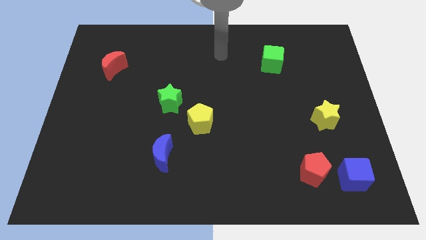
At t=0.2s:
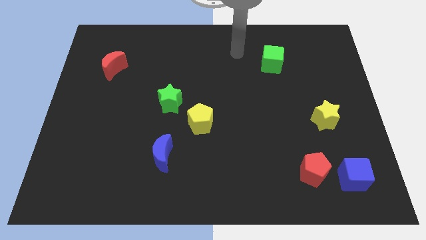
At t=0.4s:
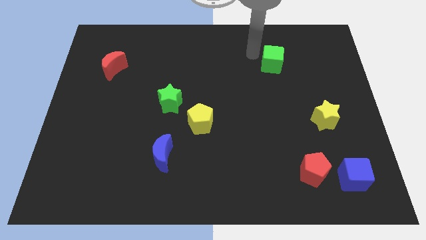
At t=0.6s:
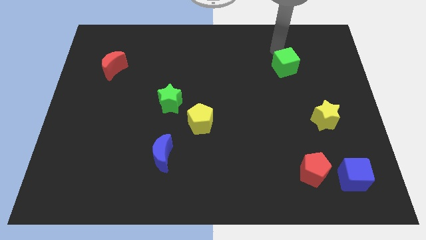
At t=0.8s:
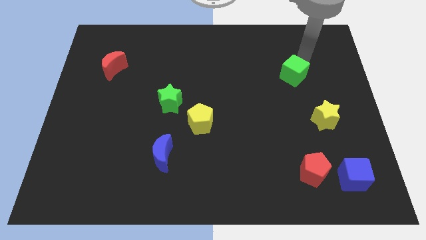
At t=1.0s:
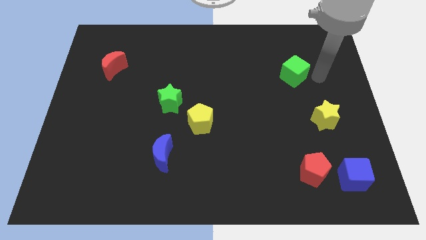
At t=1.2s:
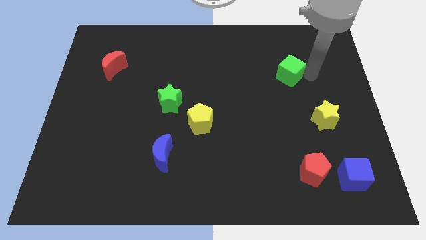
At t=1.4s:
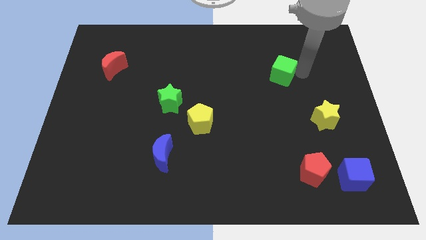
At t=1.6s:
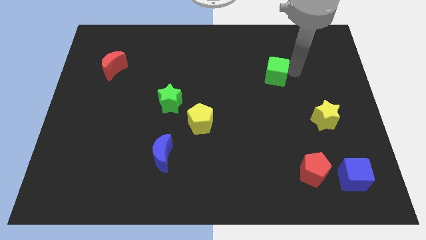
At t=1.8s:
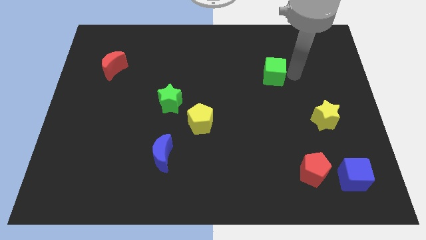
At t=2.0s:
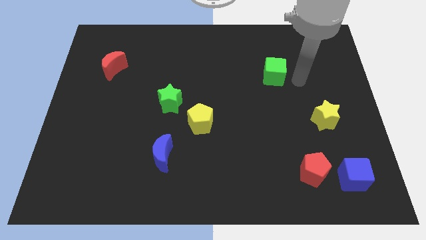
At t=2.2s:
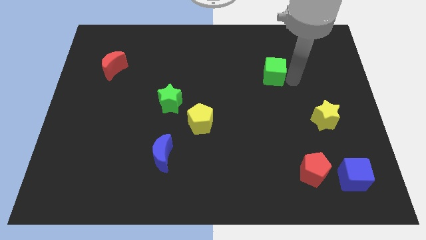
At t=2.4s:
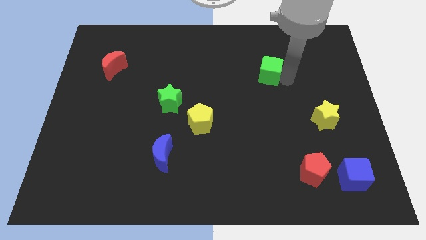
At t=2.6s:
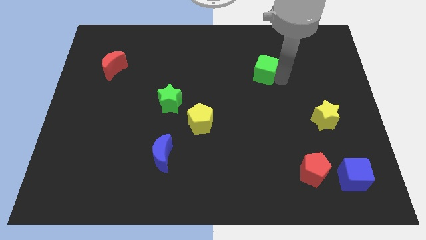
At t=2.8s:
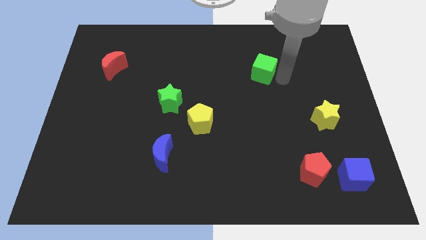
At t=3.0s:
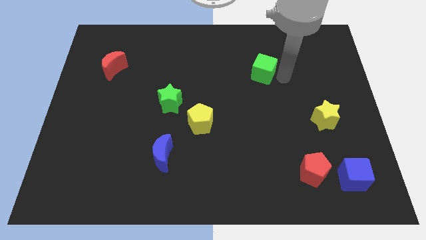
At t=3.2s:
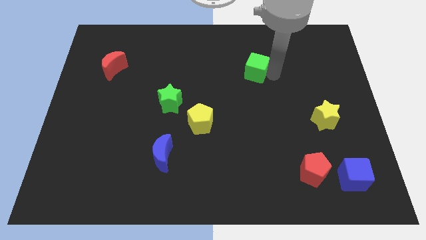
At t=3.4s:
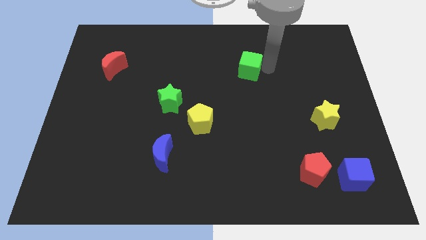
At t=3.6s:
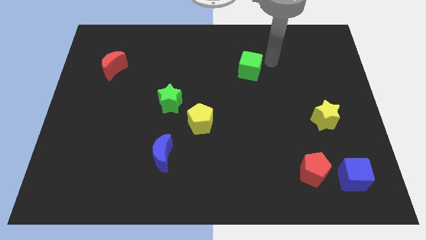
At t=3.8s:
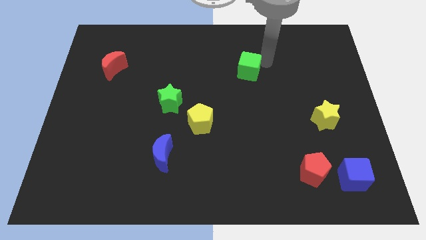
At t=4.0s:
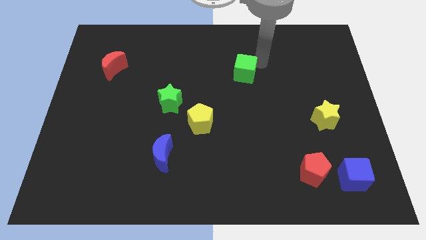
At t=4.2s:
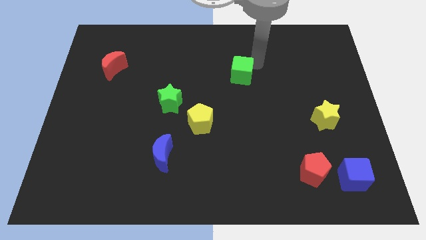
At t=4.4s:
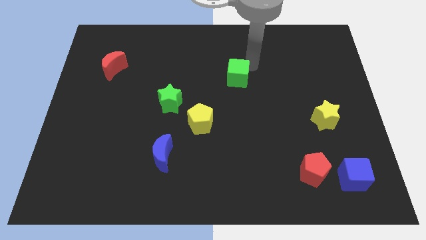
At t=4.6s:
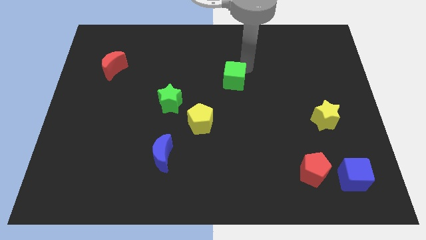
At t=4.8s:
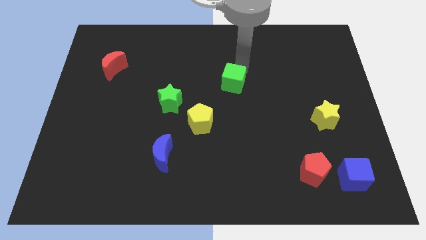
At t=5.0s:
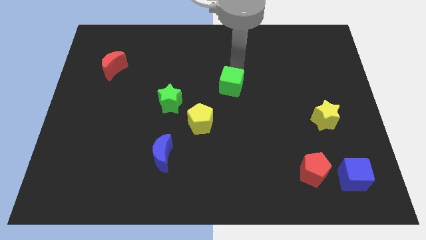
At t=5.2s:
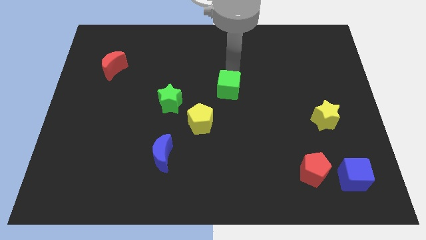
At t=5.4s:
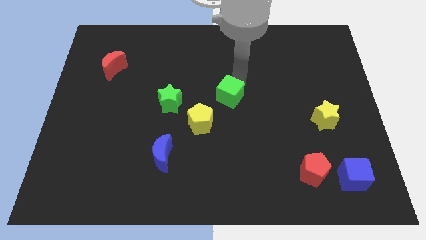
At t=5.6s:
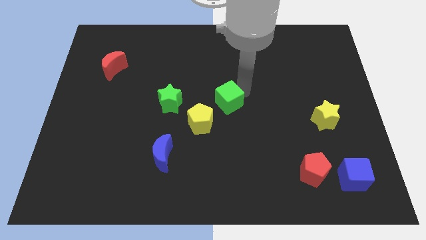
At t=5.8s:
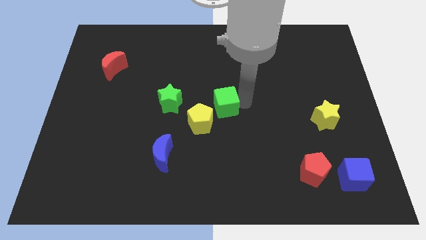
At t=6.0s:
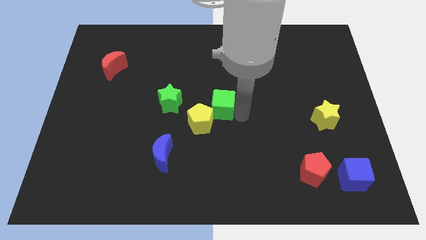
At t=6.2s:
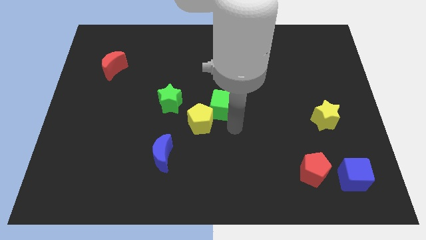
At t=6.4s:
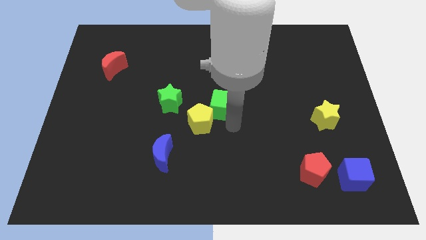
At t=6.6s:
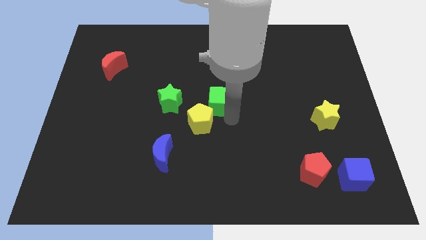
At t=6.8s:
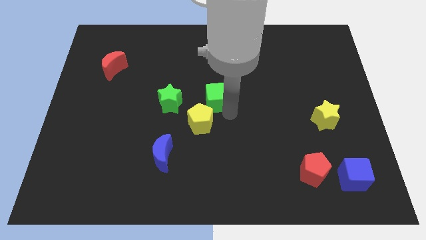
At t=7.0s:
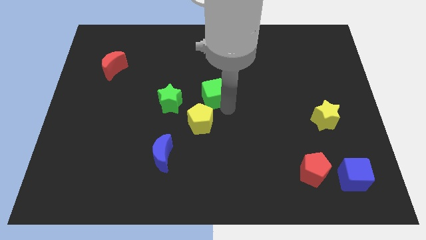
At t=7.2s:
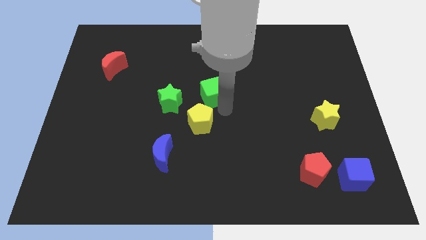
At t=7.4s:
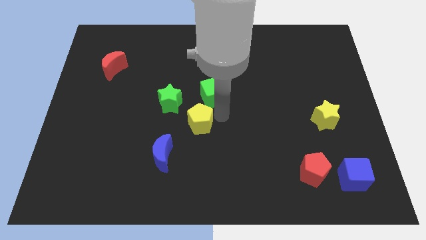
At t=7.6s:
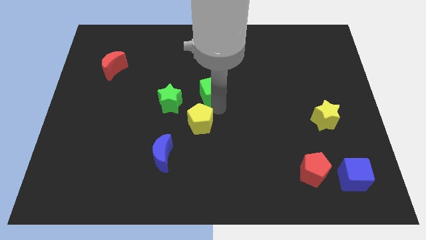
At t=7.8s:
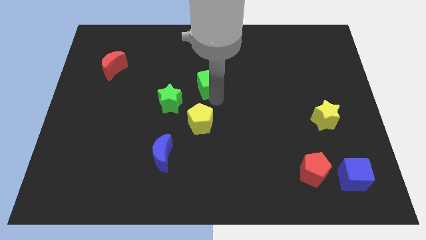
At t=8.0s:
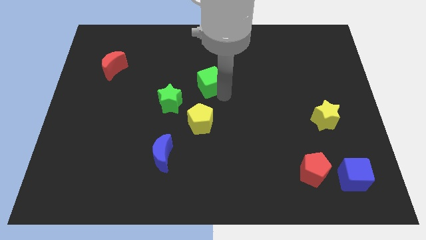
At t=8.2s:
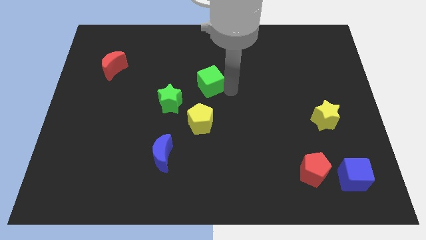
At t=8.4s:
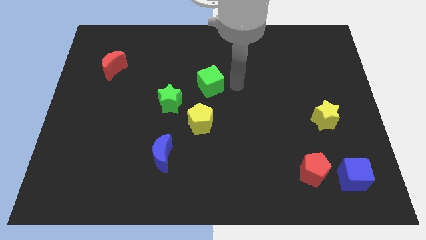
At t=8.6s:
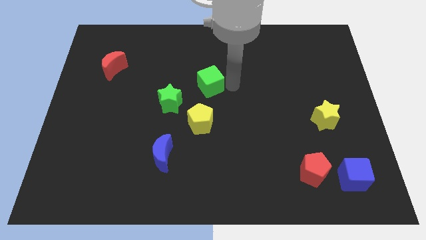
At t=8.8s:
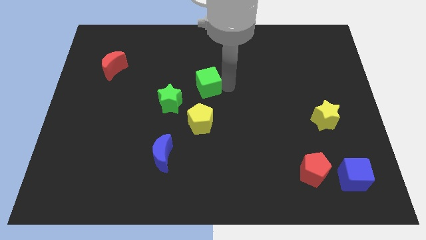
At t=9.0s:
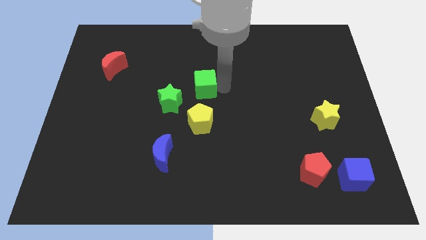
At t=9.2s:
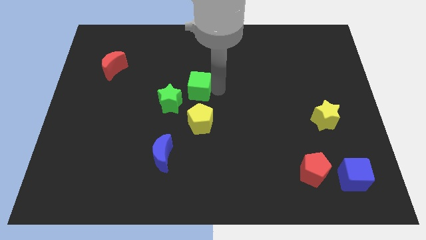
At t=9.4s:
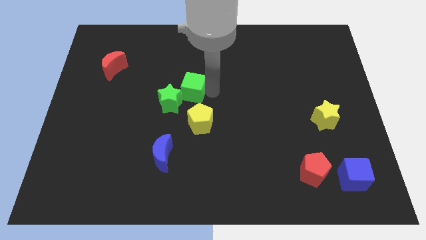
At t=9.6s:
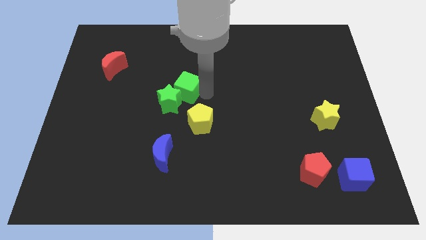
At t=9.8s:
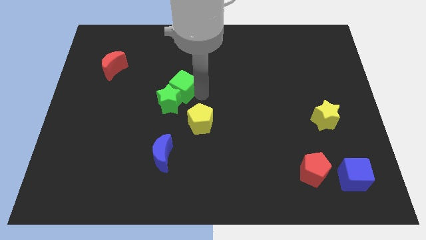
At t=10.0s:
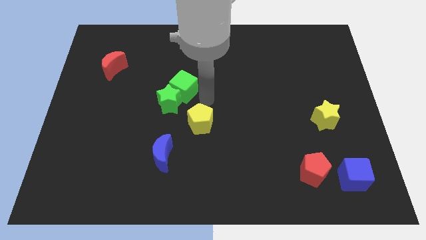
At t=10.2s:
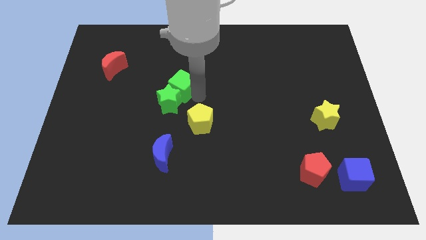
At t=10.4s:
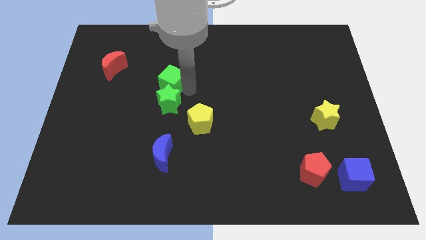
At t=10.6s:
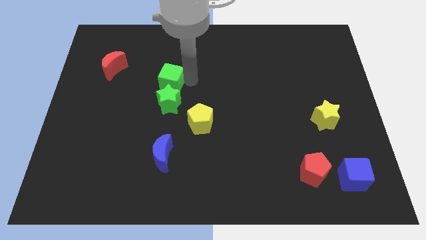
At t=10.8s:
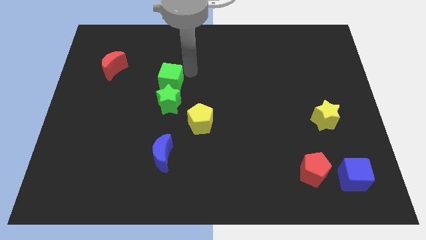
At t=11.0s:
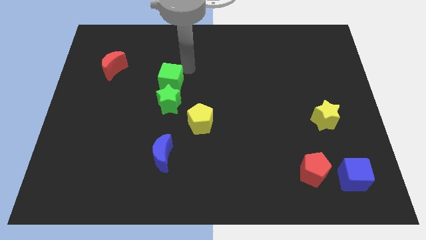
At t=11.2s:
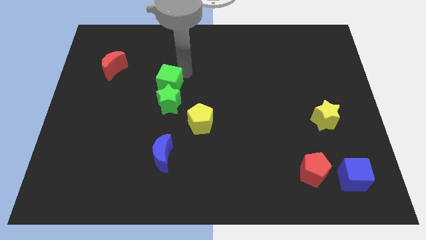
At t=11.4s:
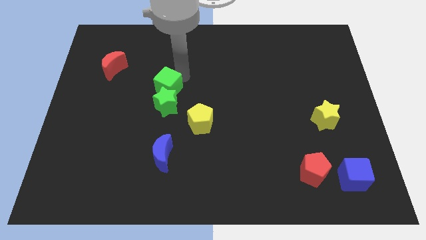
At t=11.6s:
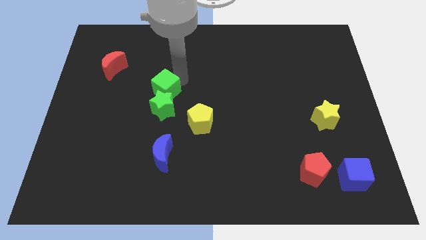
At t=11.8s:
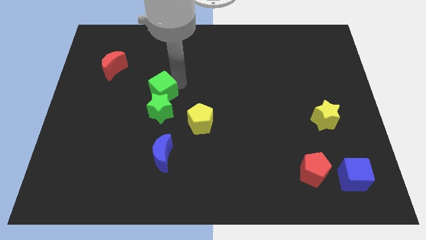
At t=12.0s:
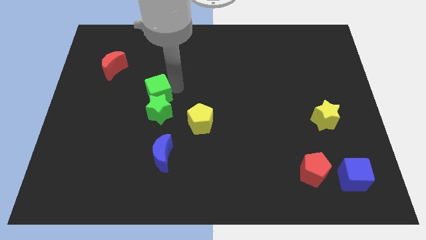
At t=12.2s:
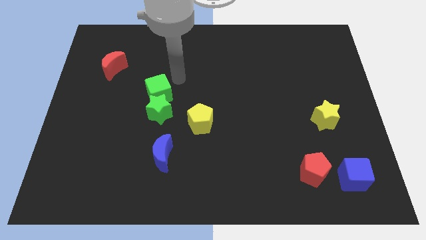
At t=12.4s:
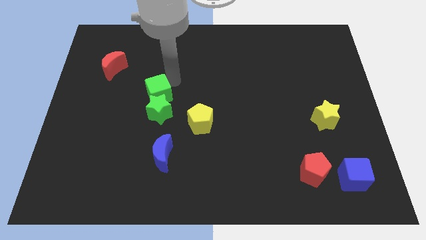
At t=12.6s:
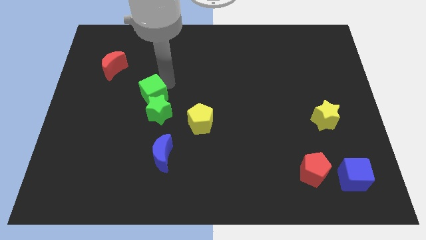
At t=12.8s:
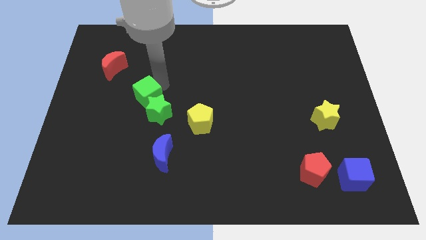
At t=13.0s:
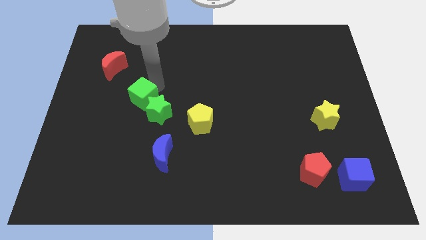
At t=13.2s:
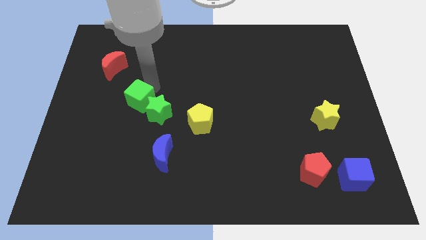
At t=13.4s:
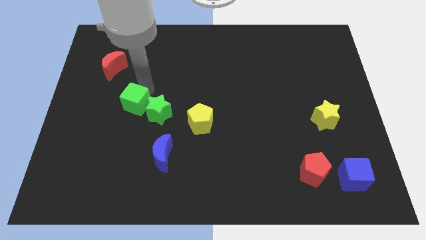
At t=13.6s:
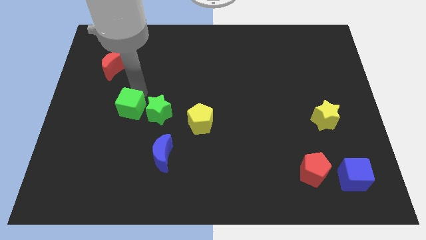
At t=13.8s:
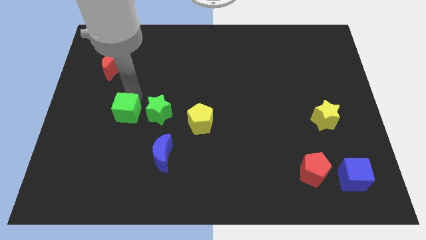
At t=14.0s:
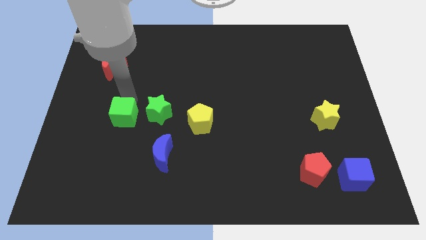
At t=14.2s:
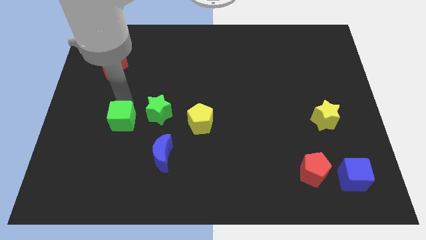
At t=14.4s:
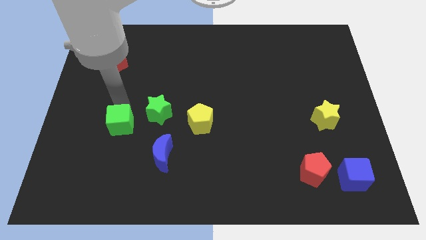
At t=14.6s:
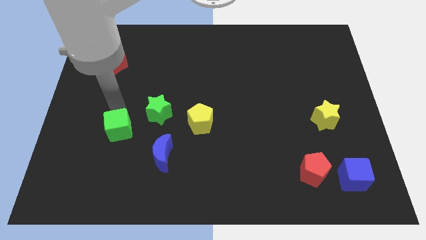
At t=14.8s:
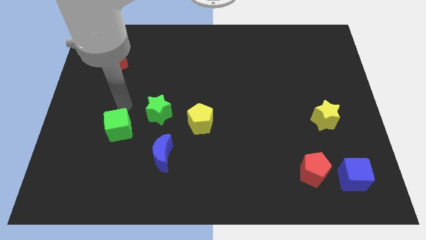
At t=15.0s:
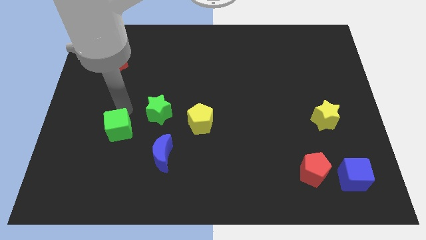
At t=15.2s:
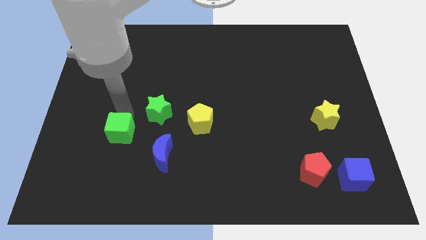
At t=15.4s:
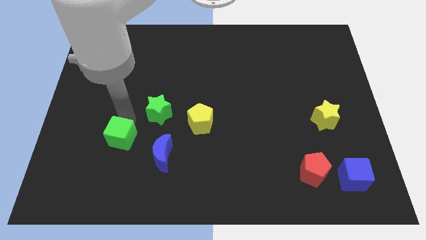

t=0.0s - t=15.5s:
push the green cube left of the blue moon
